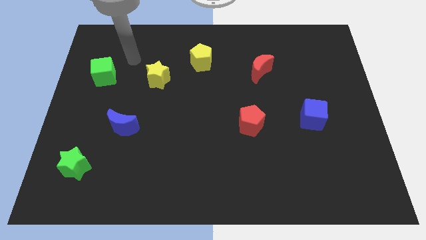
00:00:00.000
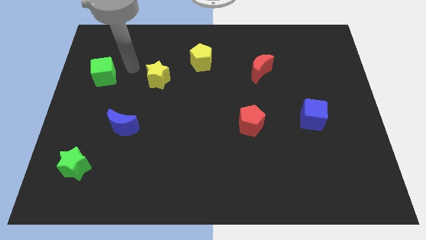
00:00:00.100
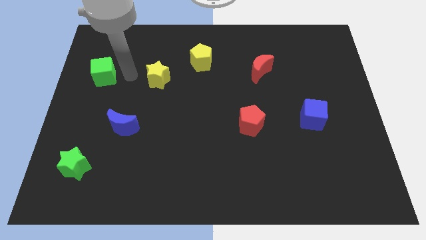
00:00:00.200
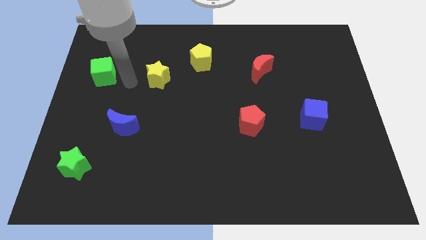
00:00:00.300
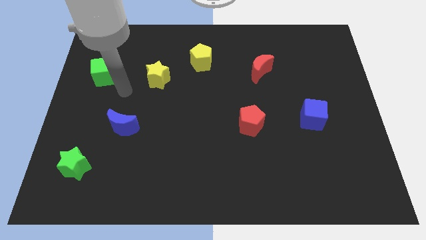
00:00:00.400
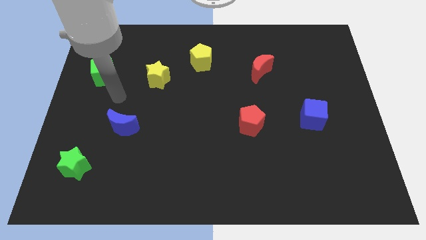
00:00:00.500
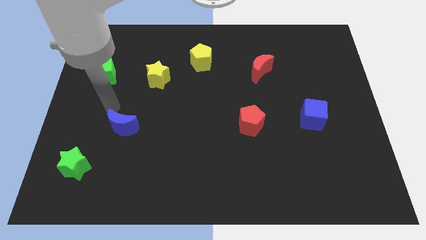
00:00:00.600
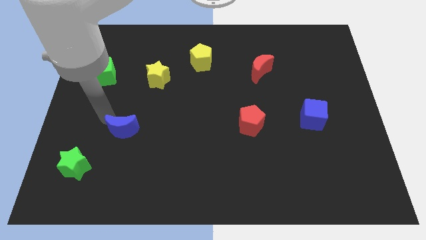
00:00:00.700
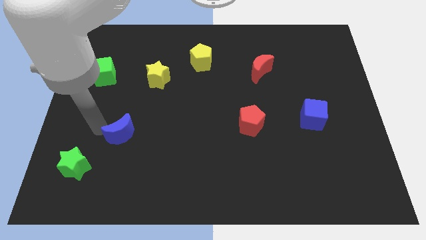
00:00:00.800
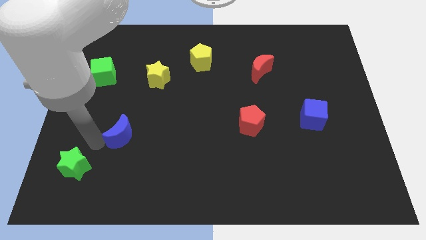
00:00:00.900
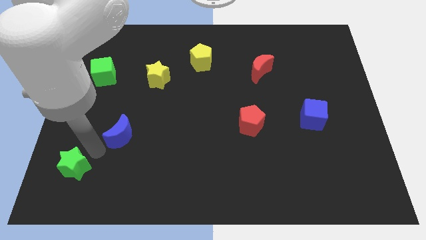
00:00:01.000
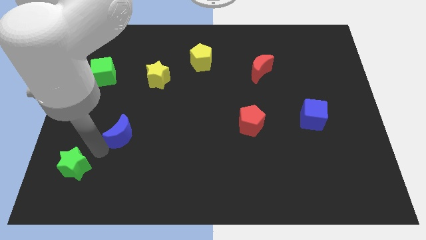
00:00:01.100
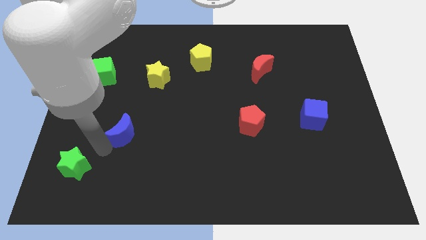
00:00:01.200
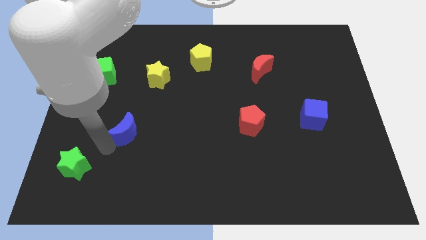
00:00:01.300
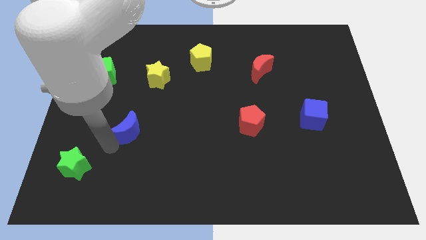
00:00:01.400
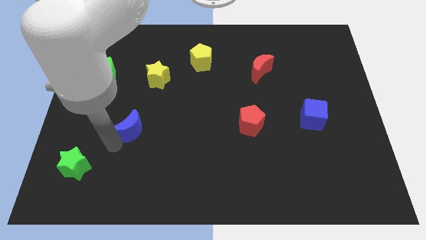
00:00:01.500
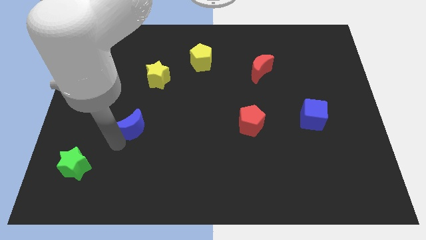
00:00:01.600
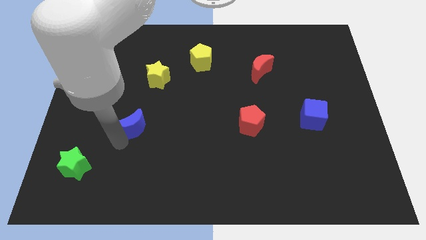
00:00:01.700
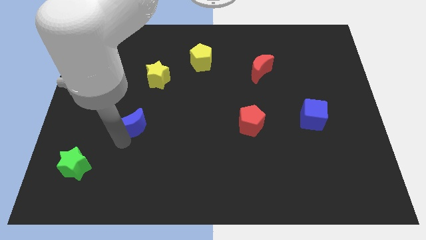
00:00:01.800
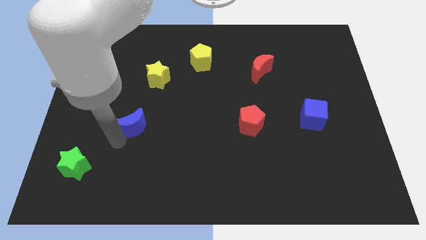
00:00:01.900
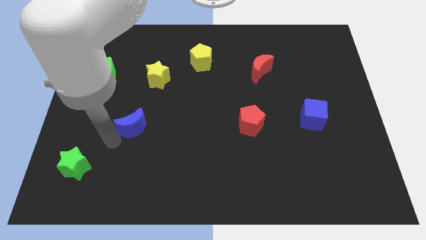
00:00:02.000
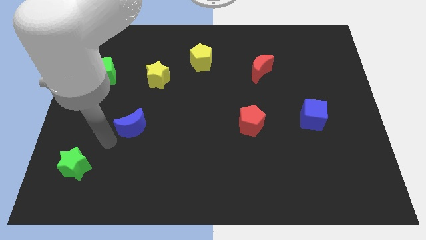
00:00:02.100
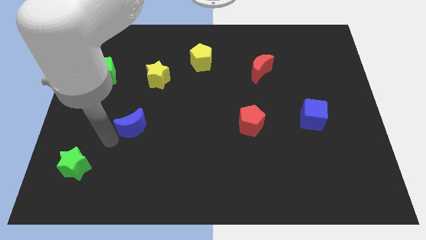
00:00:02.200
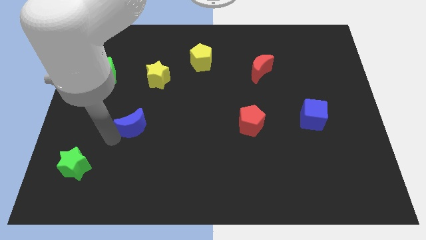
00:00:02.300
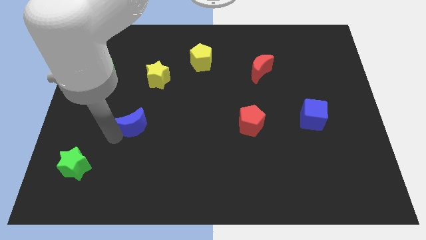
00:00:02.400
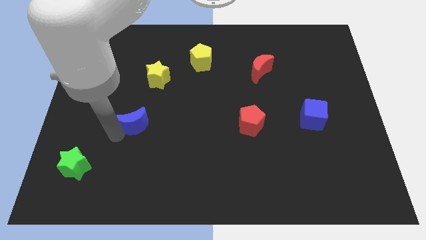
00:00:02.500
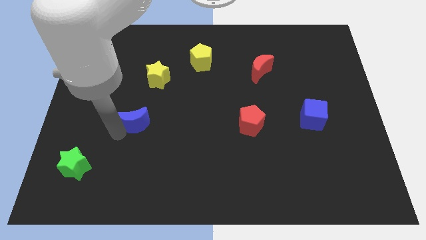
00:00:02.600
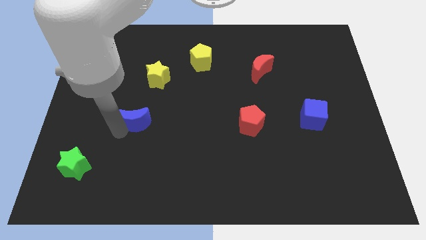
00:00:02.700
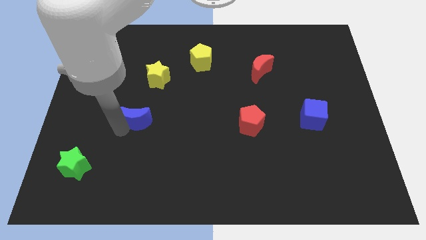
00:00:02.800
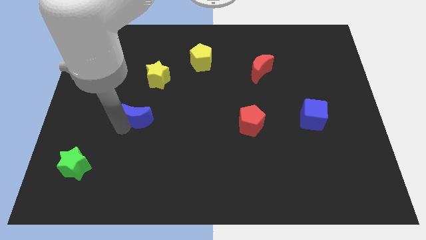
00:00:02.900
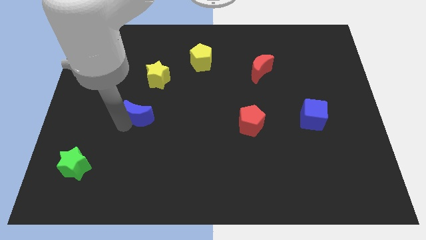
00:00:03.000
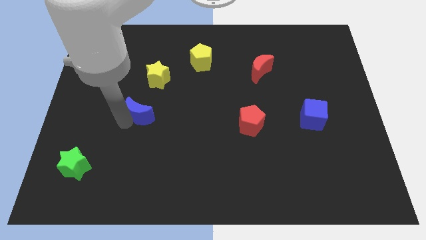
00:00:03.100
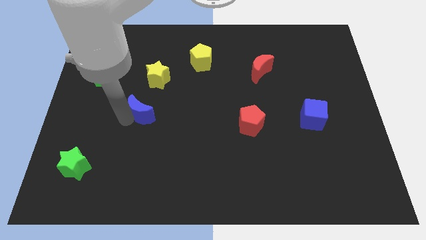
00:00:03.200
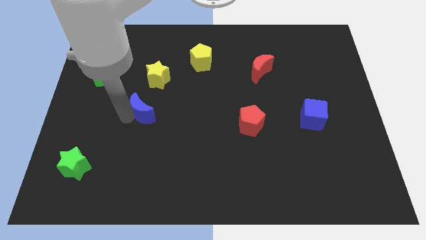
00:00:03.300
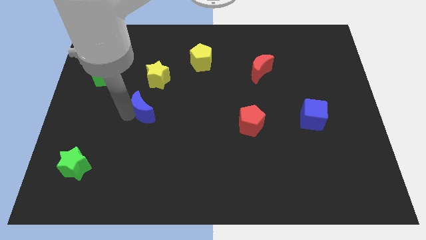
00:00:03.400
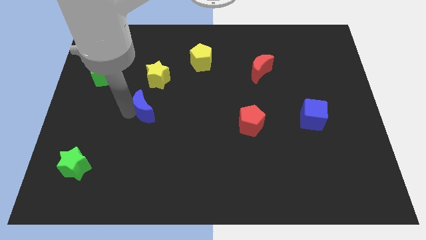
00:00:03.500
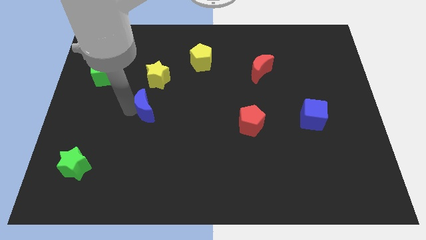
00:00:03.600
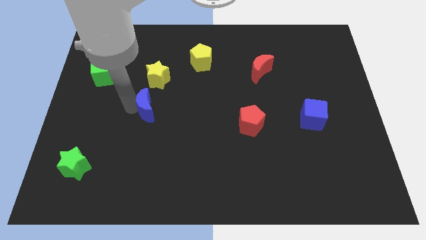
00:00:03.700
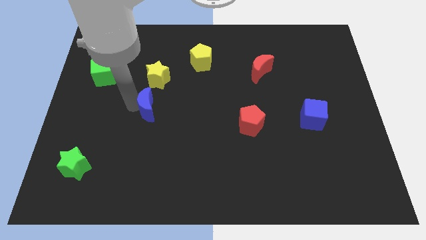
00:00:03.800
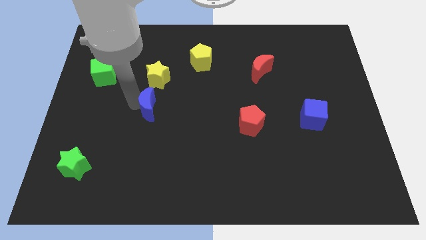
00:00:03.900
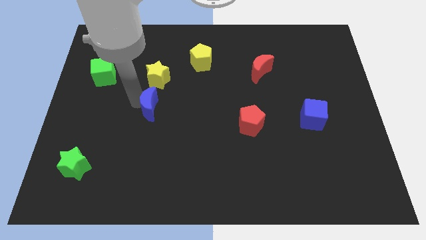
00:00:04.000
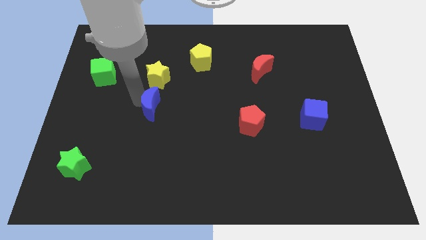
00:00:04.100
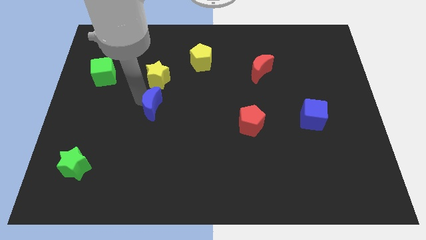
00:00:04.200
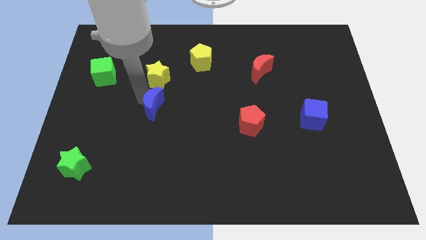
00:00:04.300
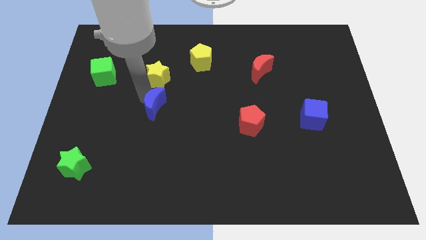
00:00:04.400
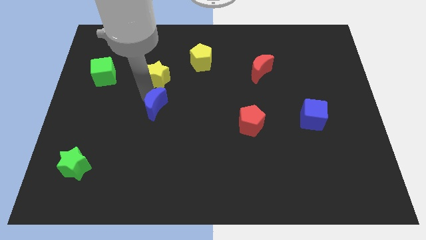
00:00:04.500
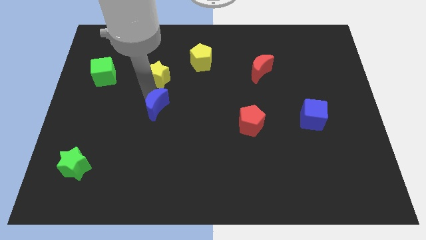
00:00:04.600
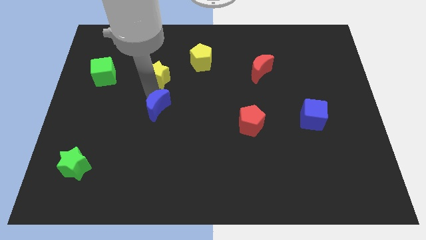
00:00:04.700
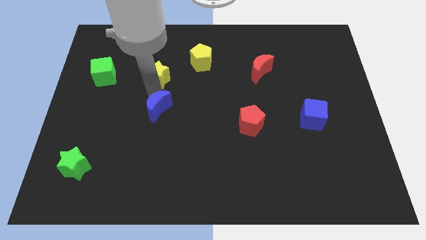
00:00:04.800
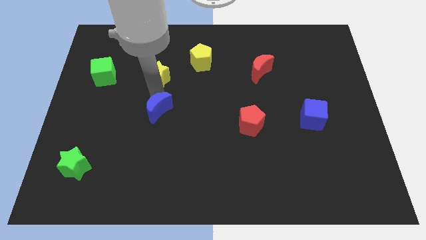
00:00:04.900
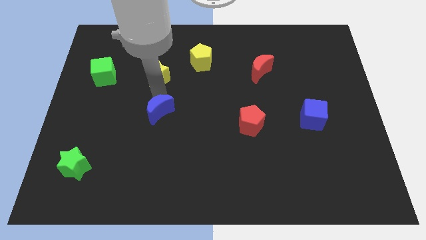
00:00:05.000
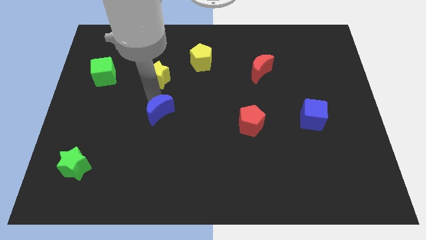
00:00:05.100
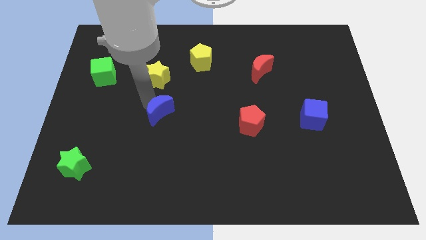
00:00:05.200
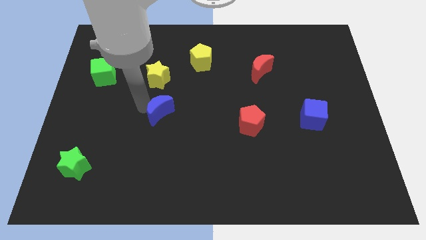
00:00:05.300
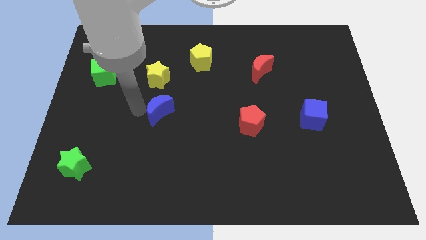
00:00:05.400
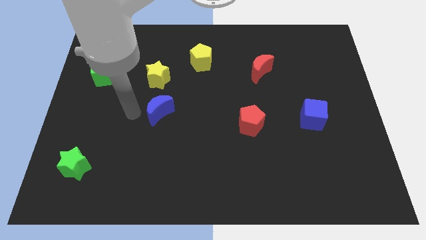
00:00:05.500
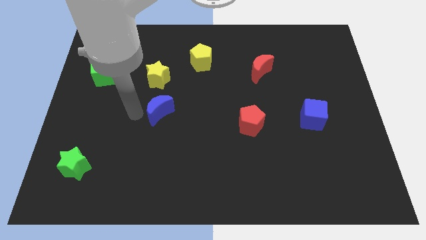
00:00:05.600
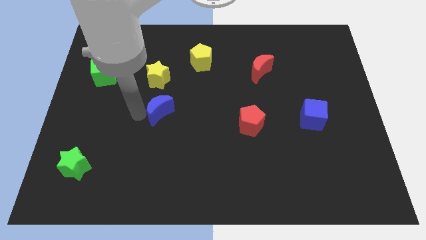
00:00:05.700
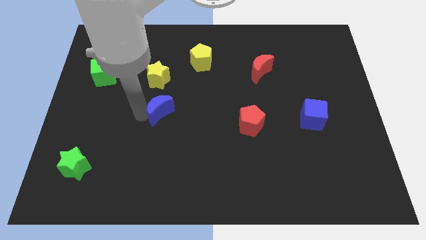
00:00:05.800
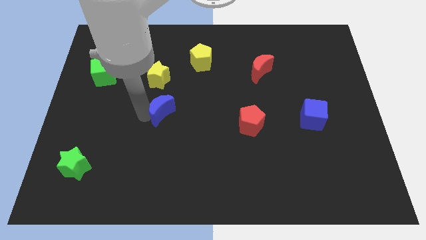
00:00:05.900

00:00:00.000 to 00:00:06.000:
push the blue moon to the center of the board
